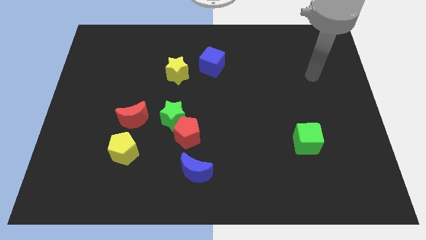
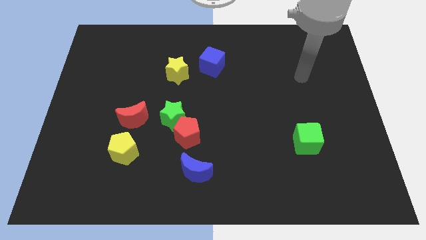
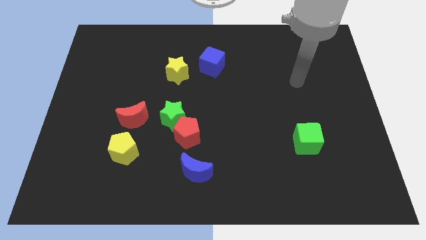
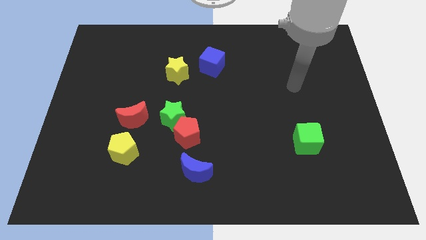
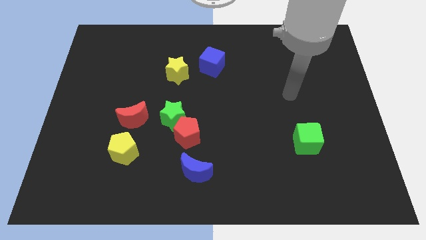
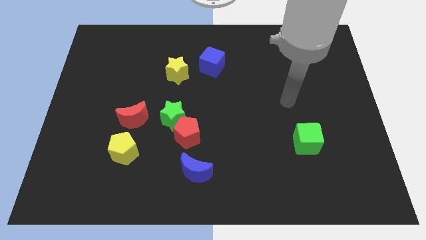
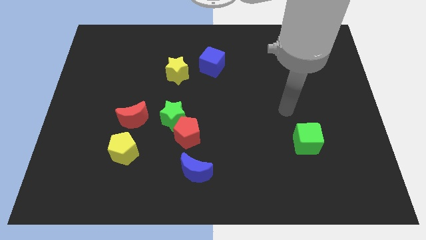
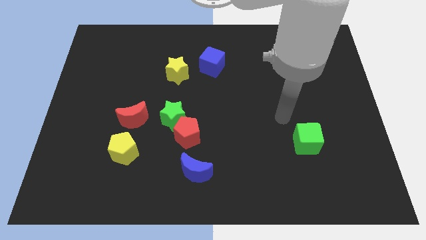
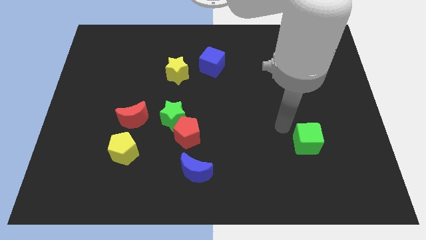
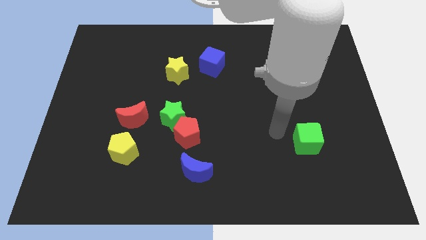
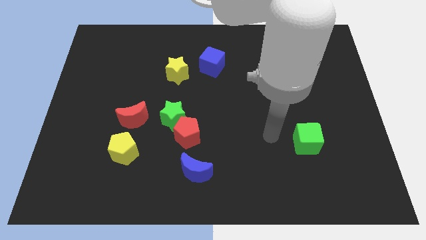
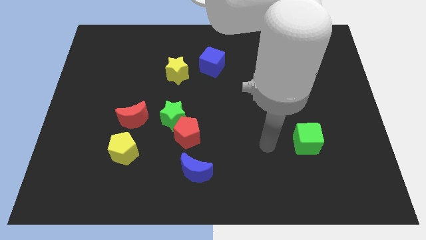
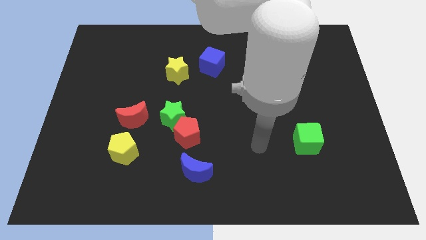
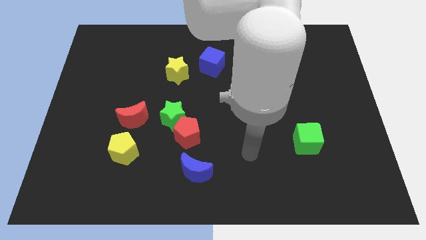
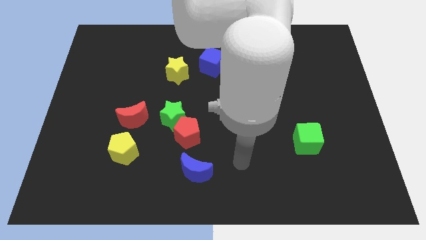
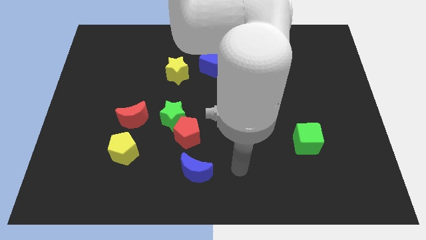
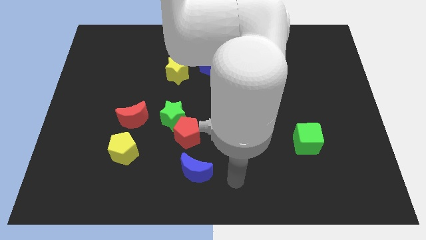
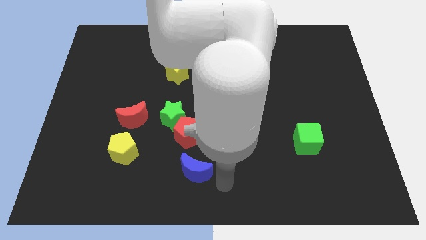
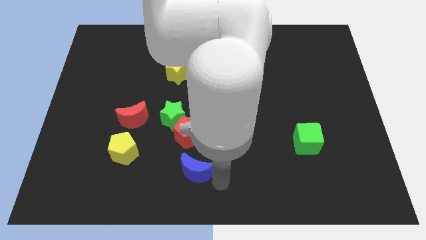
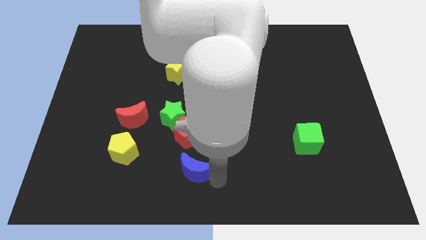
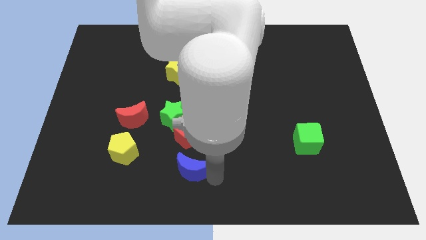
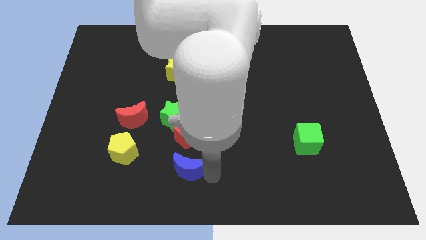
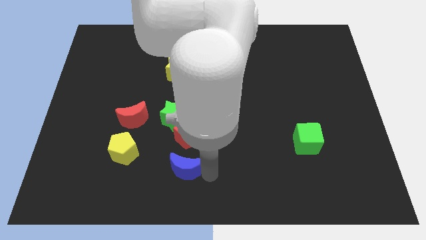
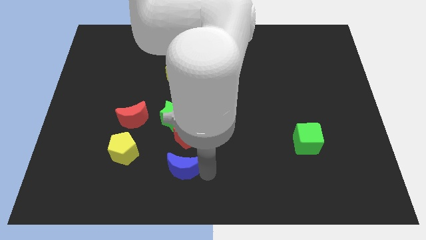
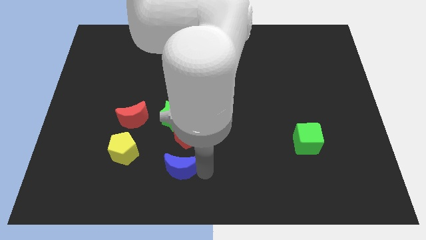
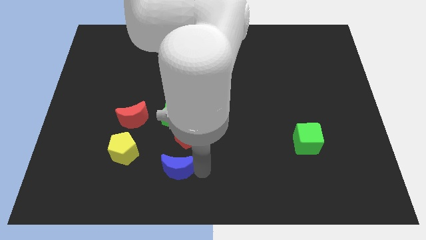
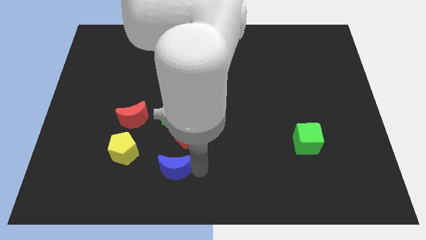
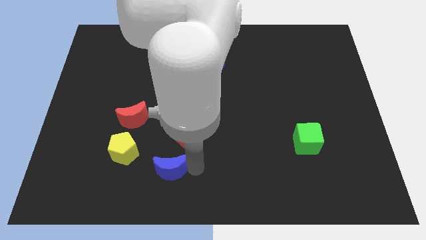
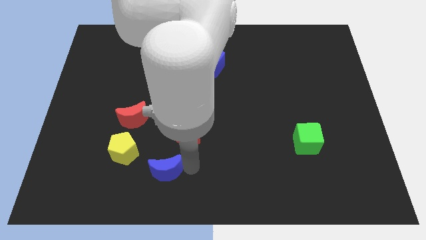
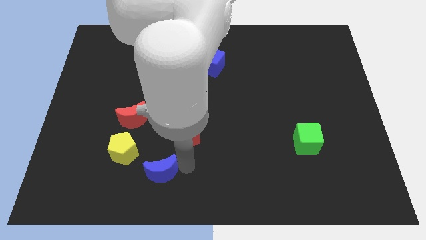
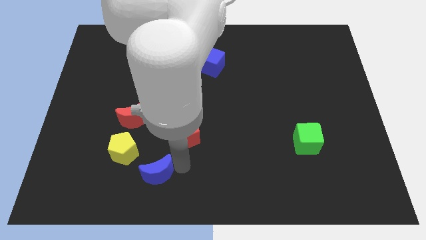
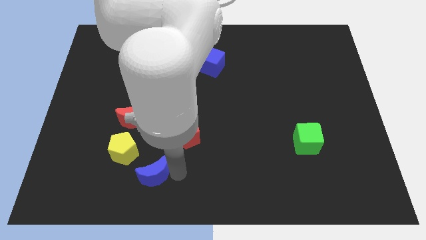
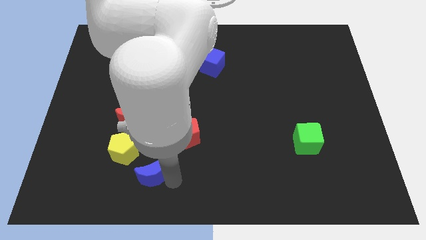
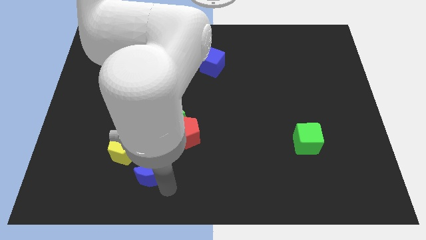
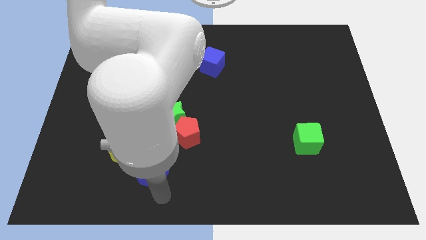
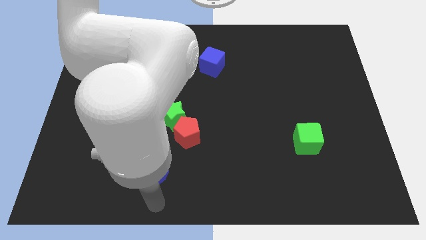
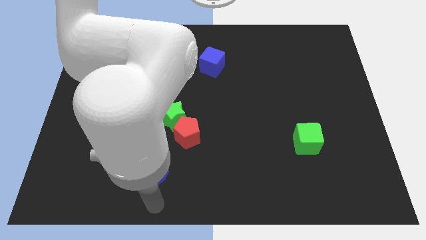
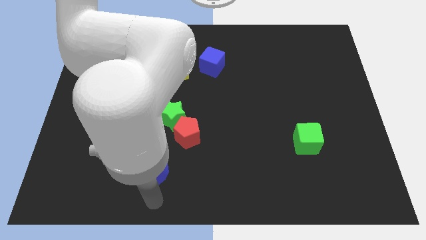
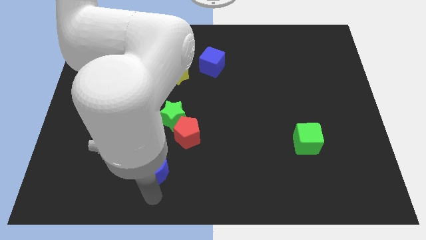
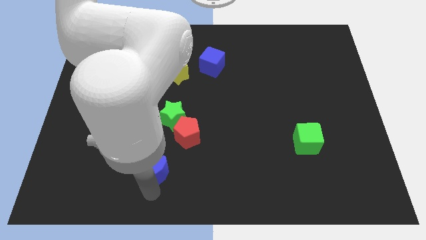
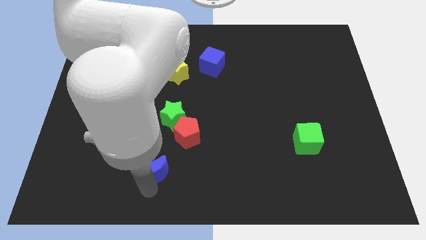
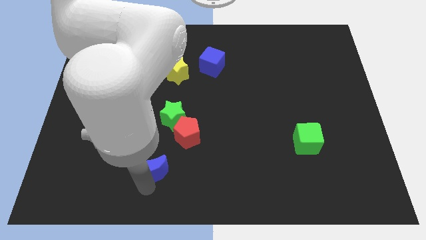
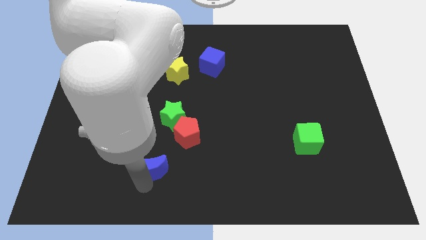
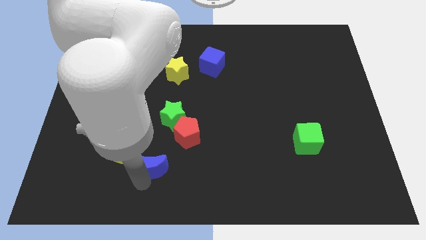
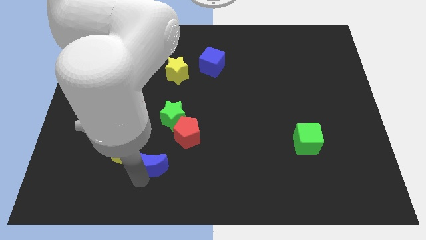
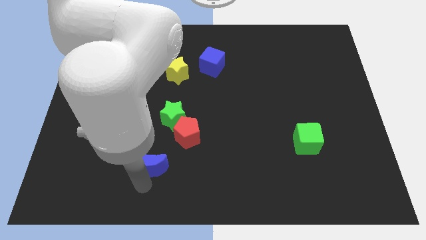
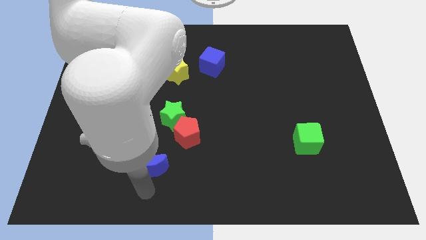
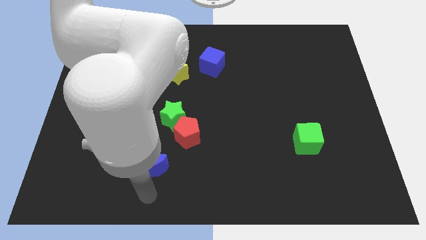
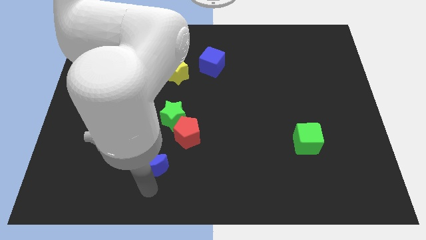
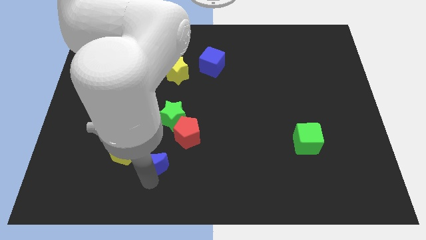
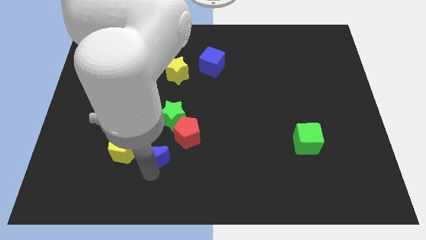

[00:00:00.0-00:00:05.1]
push the blue moon to the bottom right side of the red moon

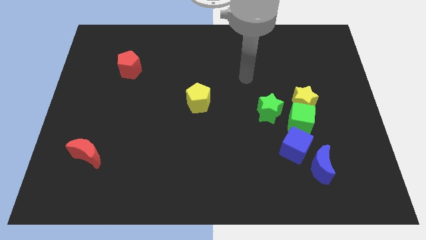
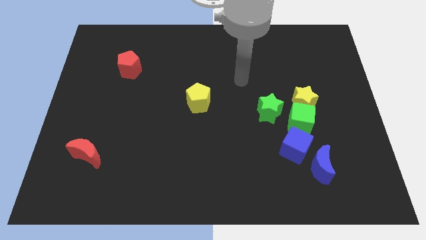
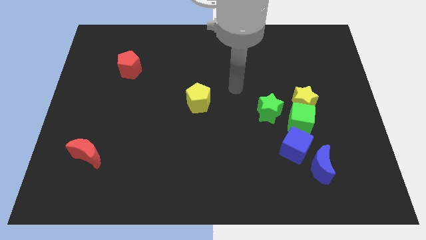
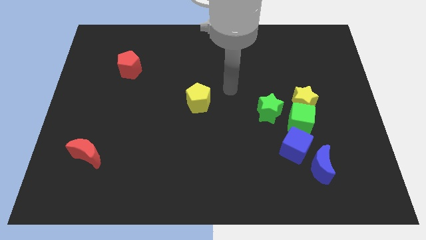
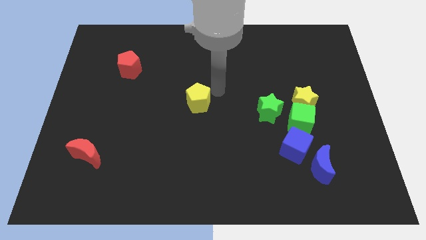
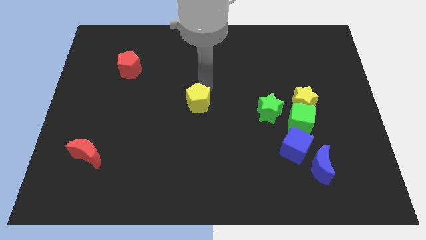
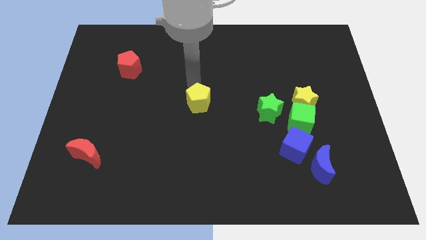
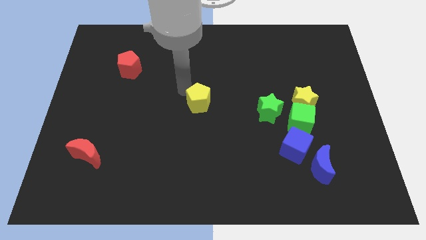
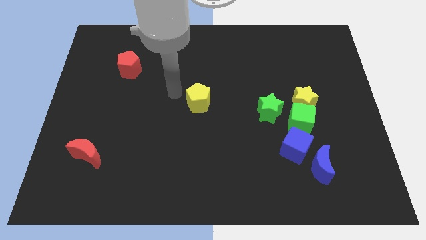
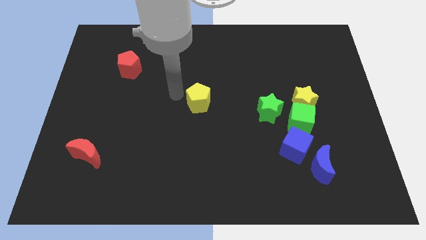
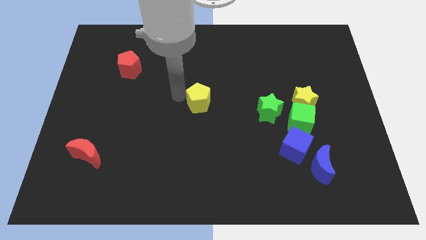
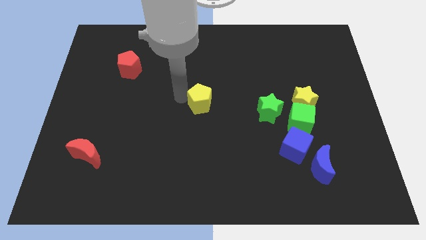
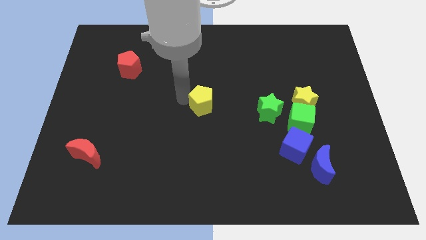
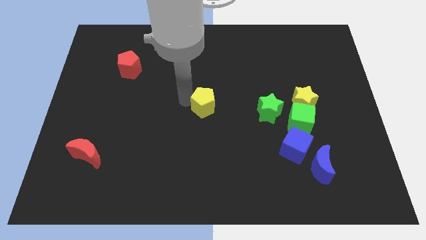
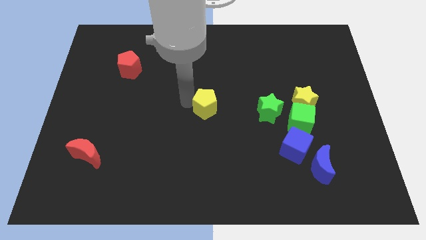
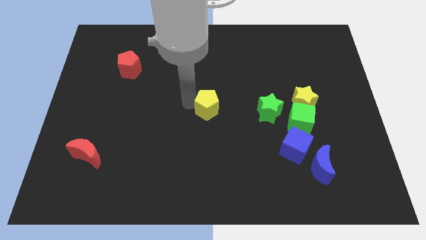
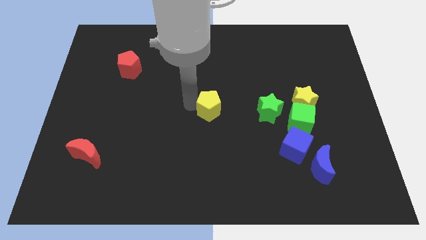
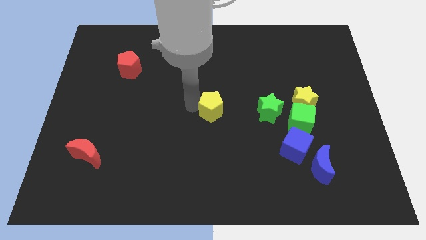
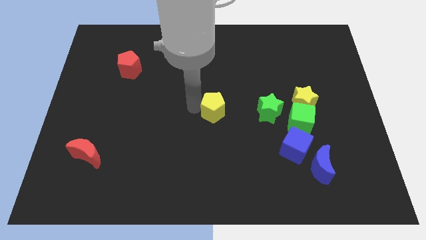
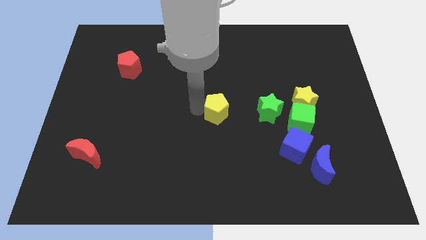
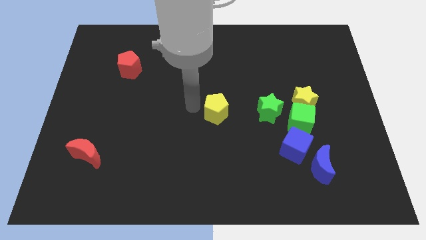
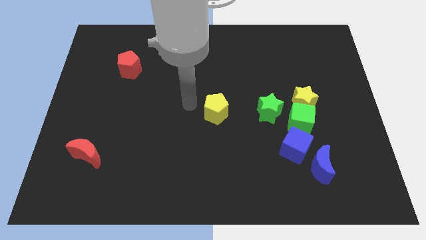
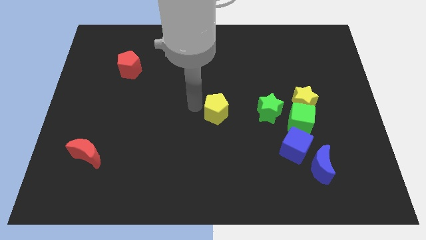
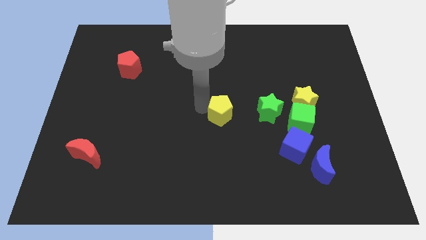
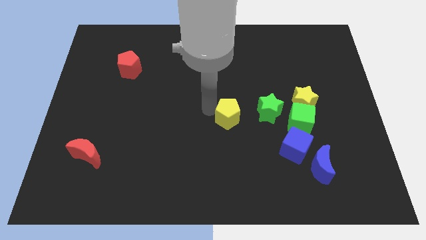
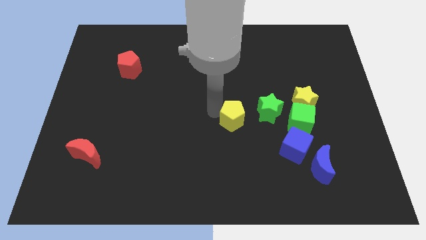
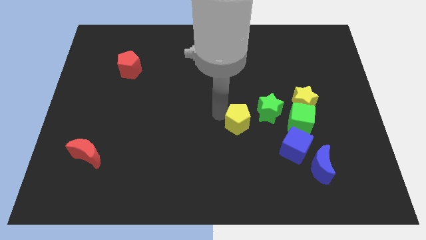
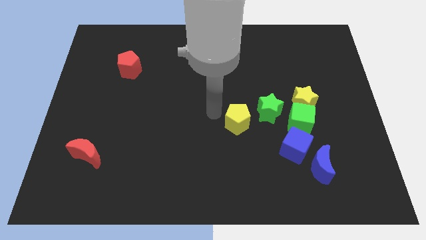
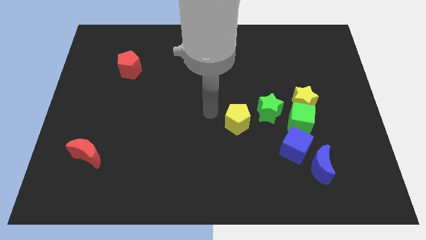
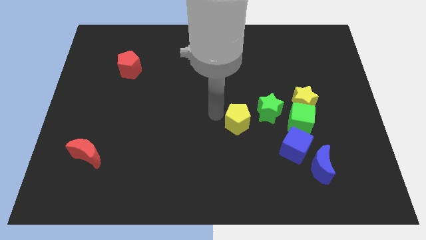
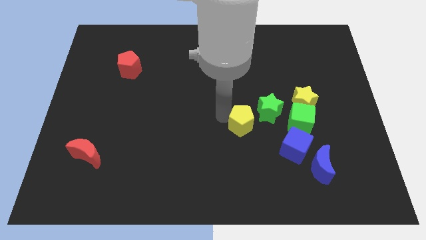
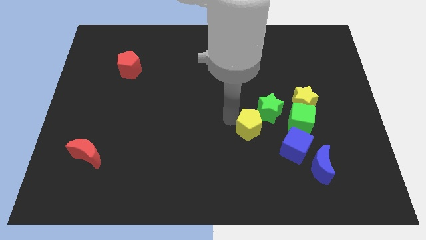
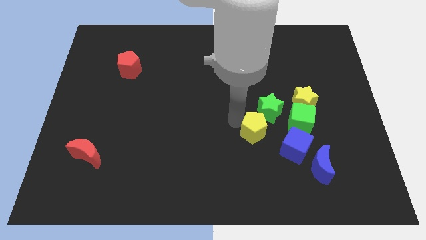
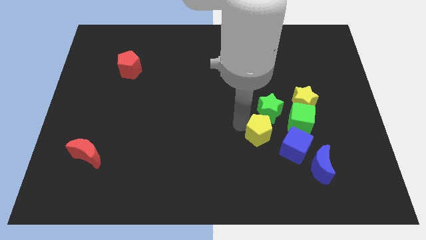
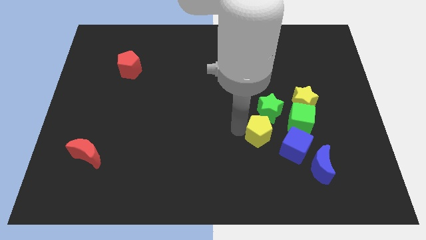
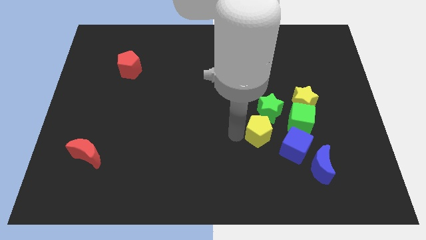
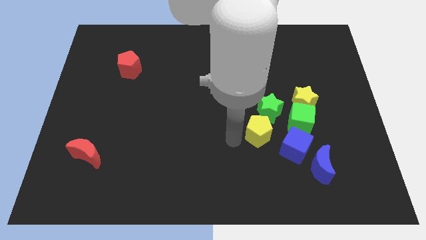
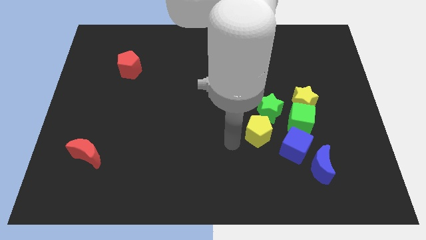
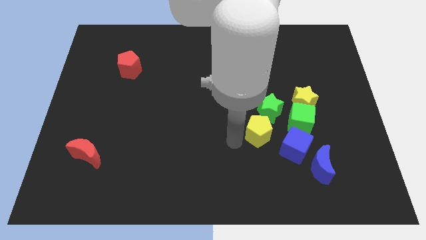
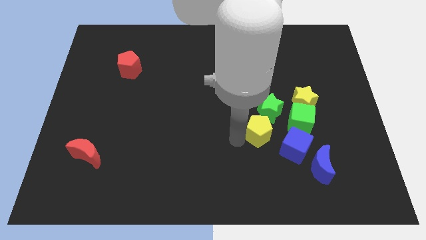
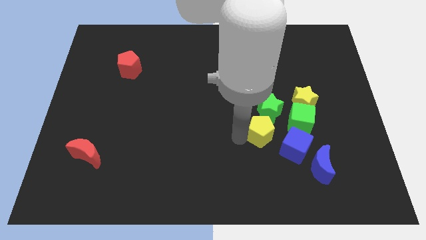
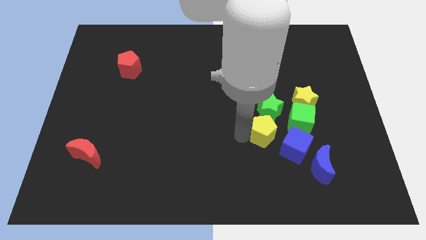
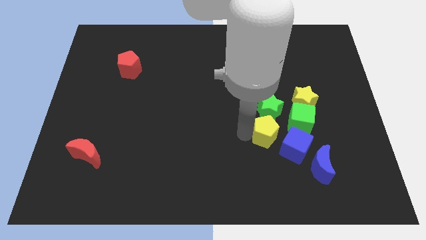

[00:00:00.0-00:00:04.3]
put the yellow pentagon to the bottom left of the yellow star
